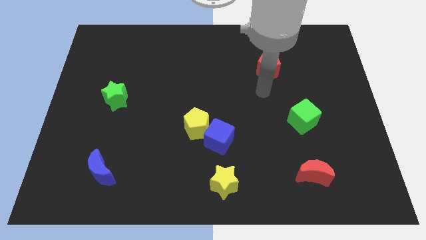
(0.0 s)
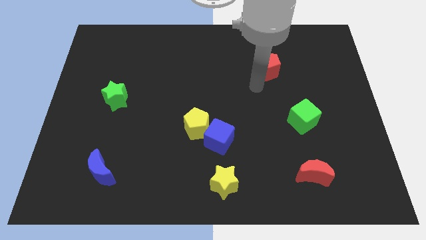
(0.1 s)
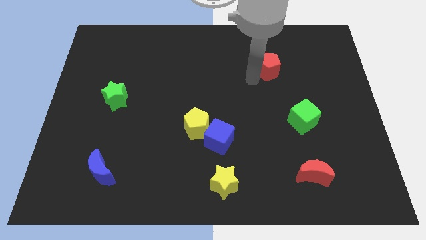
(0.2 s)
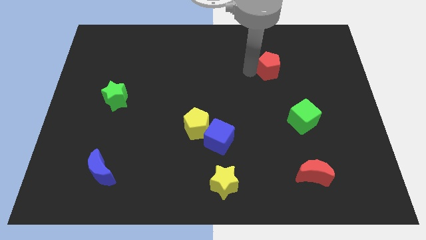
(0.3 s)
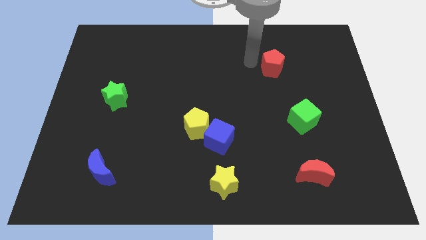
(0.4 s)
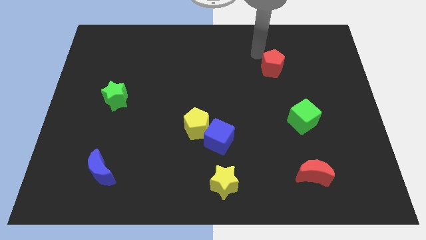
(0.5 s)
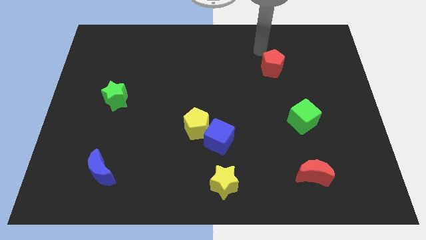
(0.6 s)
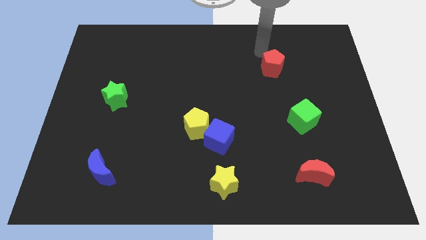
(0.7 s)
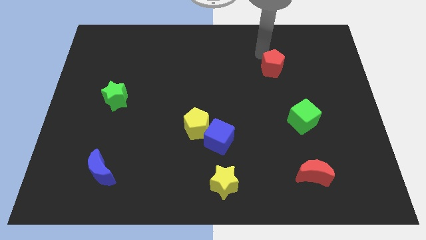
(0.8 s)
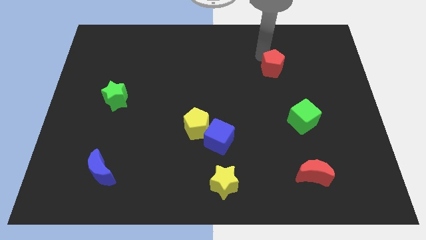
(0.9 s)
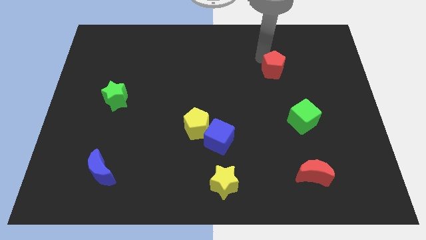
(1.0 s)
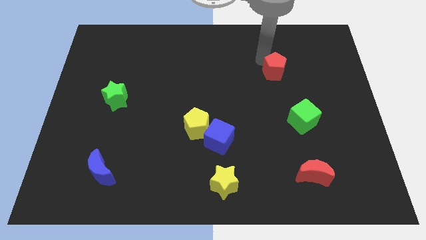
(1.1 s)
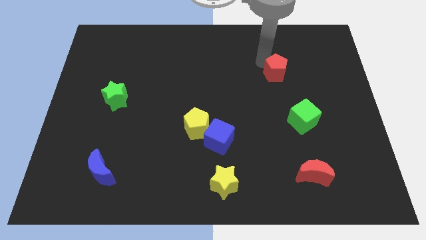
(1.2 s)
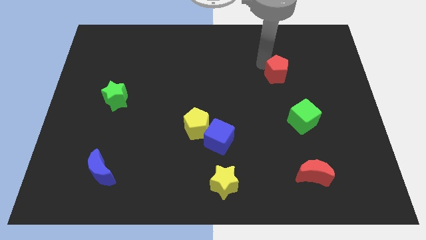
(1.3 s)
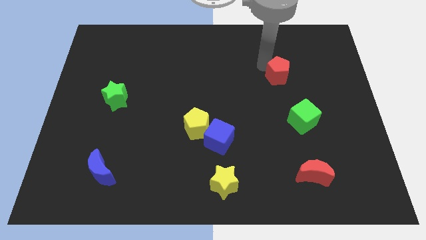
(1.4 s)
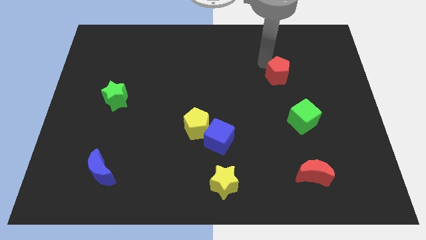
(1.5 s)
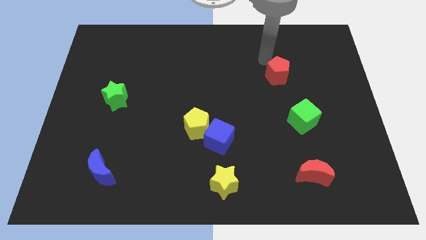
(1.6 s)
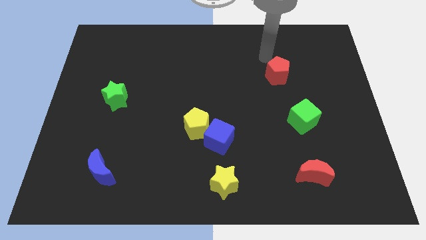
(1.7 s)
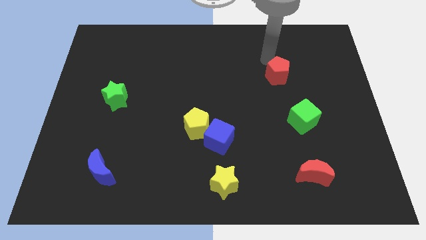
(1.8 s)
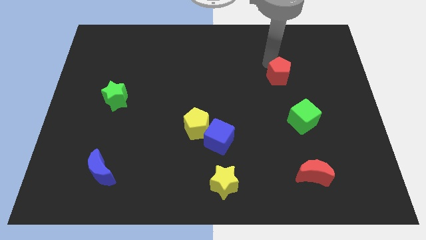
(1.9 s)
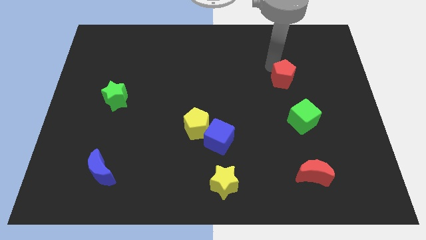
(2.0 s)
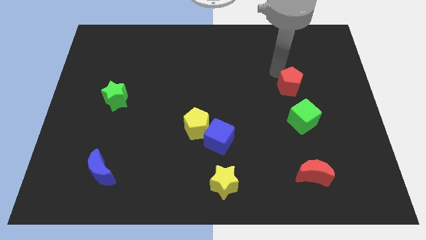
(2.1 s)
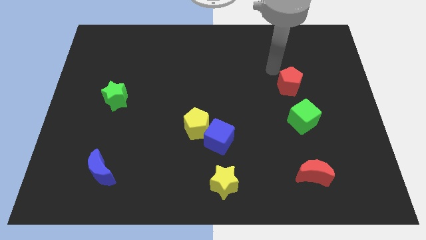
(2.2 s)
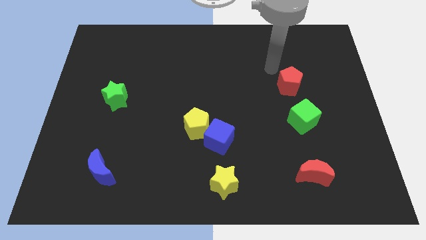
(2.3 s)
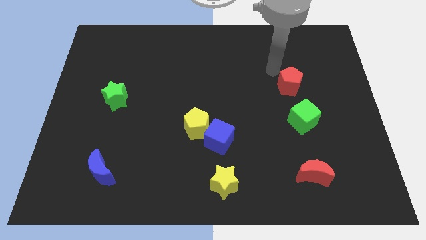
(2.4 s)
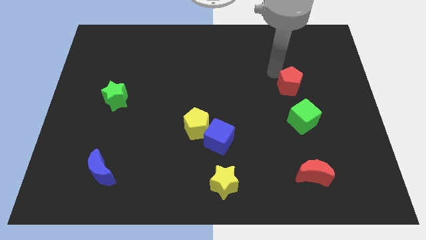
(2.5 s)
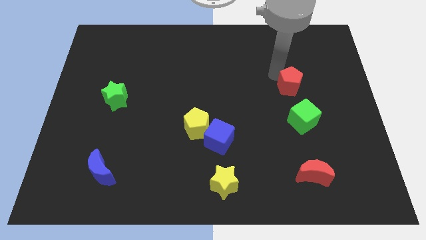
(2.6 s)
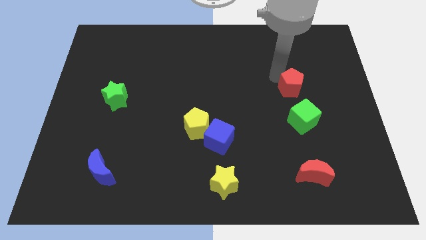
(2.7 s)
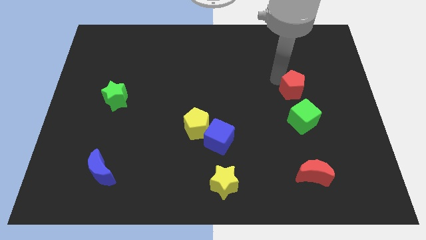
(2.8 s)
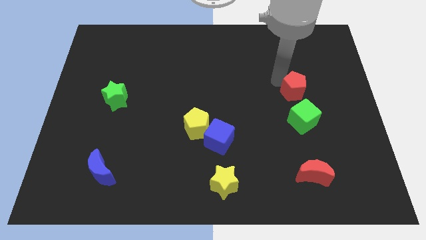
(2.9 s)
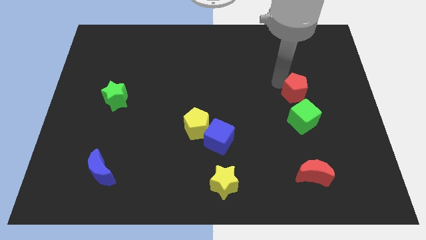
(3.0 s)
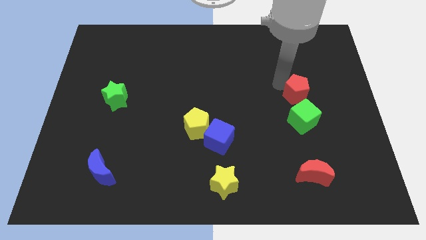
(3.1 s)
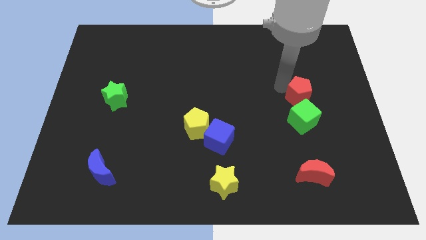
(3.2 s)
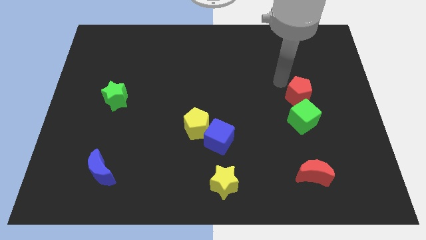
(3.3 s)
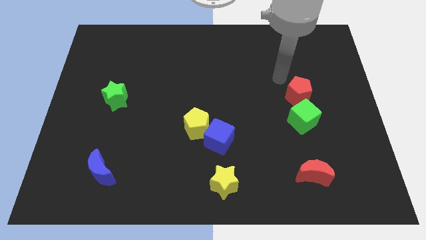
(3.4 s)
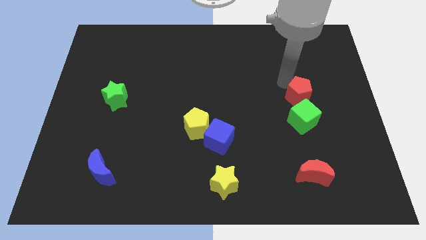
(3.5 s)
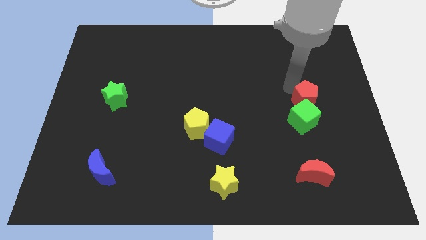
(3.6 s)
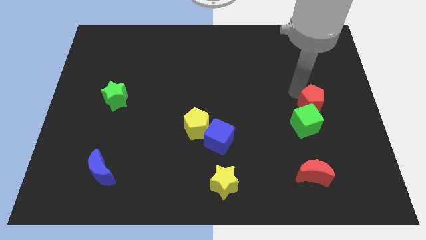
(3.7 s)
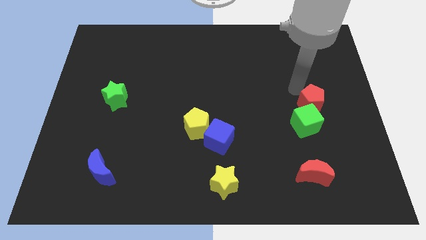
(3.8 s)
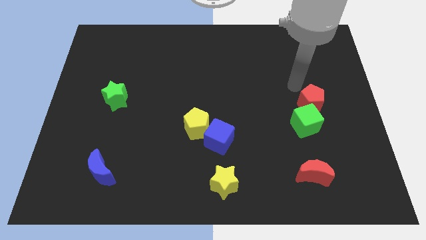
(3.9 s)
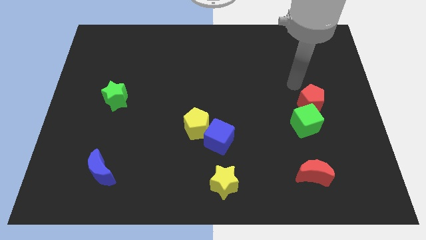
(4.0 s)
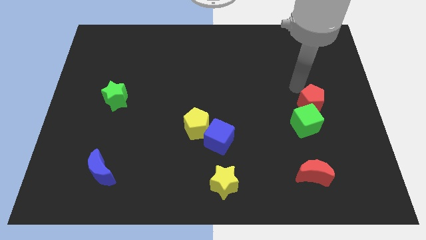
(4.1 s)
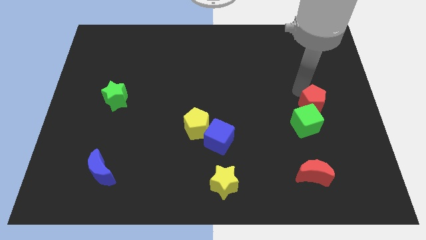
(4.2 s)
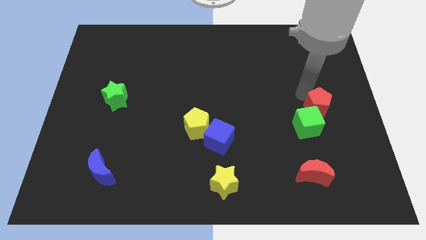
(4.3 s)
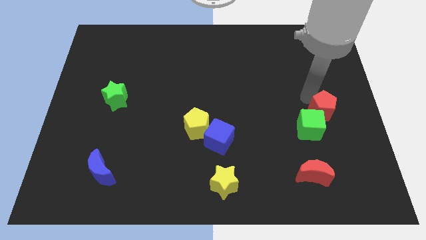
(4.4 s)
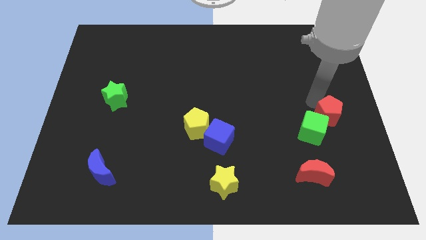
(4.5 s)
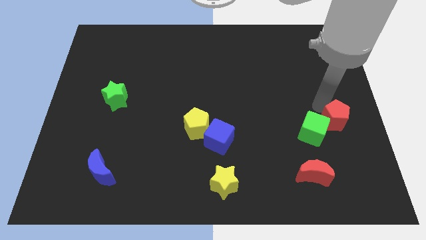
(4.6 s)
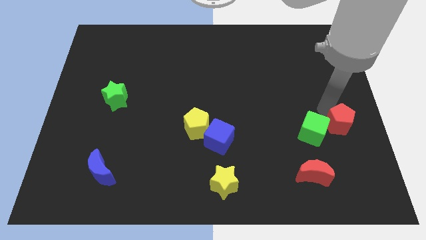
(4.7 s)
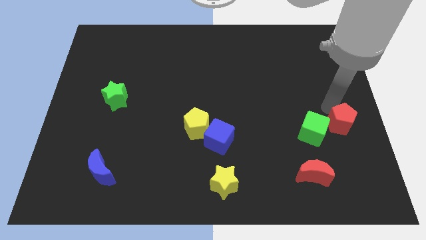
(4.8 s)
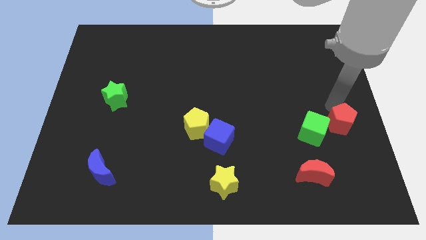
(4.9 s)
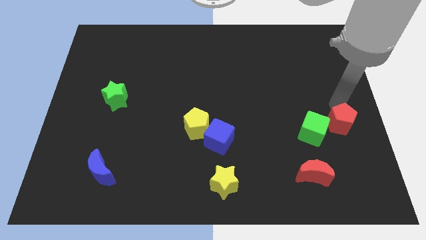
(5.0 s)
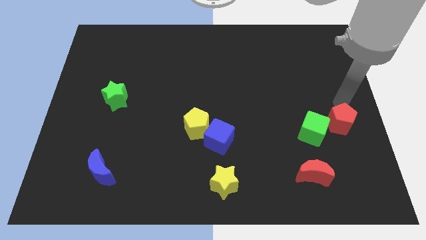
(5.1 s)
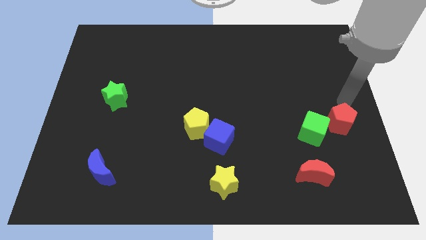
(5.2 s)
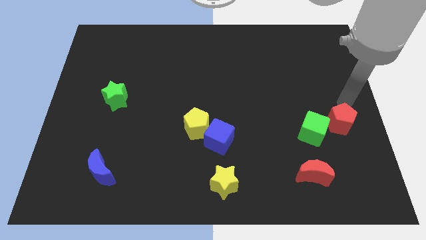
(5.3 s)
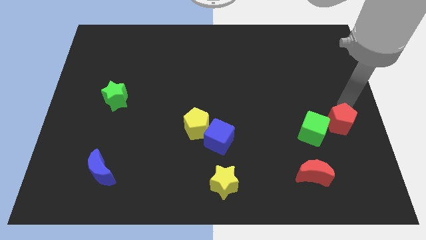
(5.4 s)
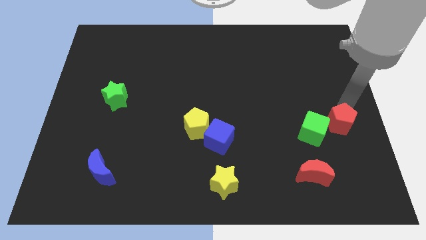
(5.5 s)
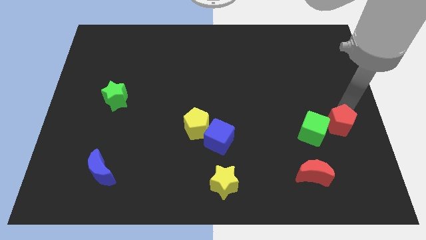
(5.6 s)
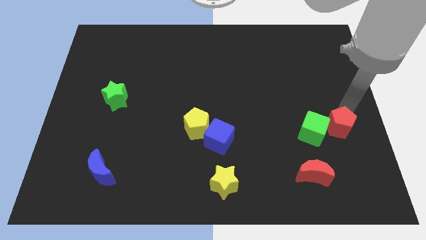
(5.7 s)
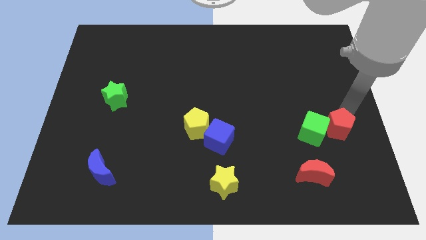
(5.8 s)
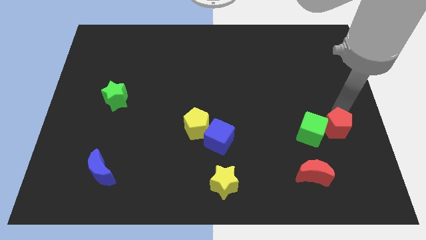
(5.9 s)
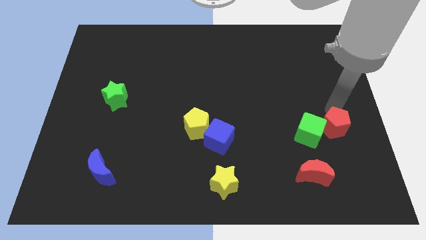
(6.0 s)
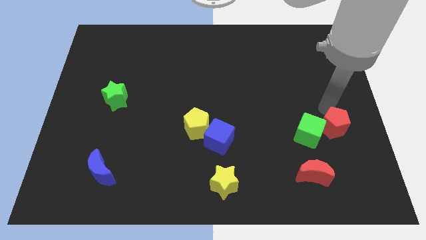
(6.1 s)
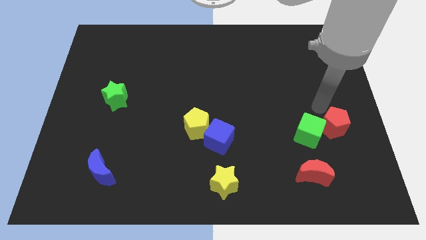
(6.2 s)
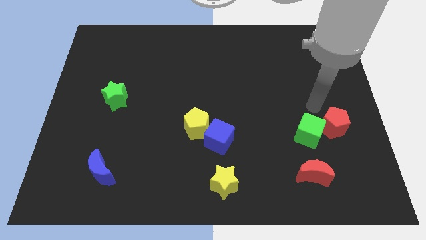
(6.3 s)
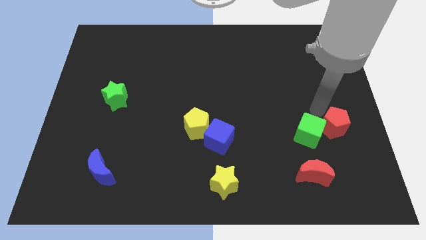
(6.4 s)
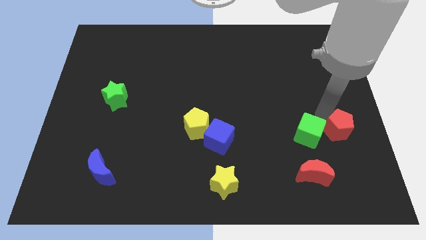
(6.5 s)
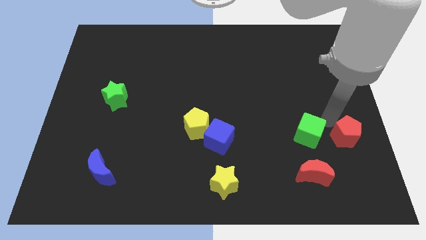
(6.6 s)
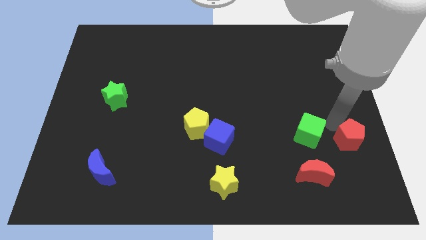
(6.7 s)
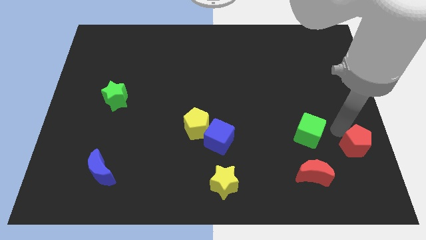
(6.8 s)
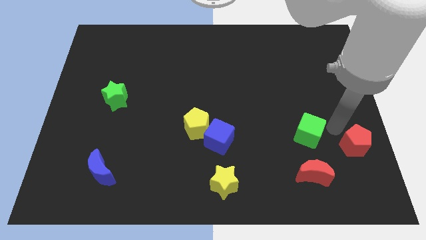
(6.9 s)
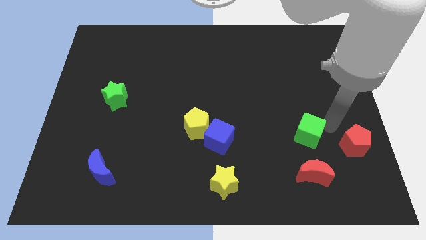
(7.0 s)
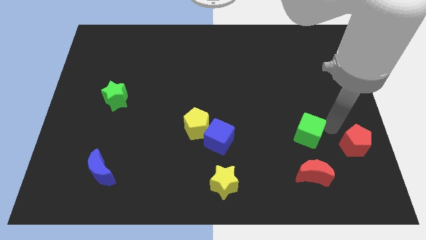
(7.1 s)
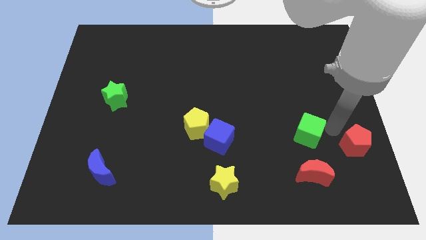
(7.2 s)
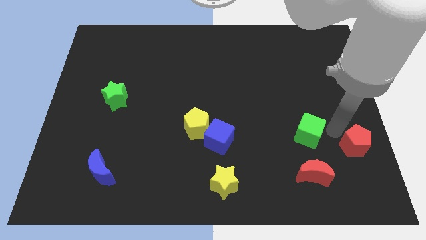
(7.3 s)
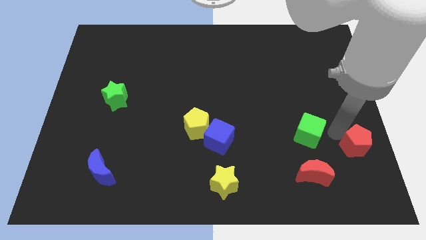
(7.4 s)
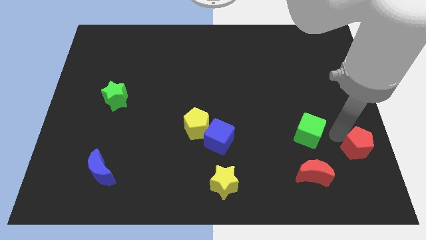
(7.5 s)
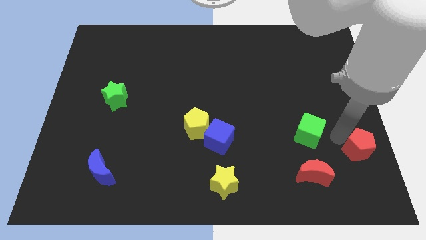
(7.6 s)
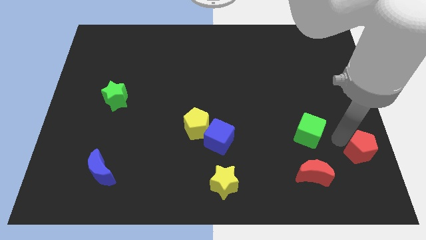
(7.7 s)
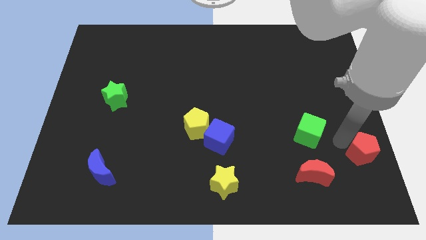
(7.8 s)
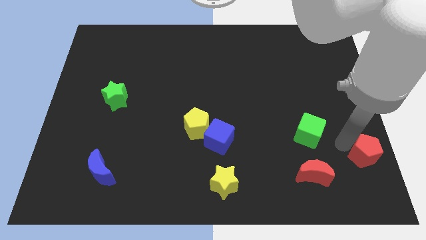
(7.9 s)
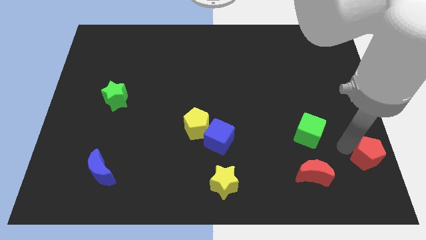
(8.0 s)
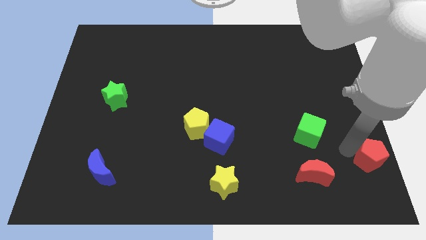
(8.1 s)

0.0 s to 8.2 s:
slide the red pentagon to the lower right corner
